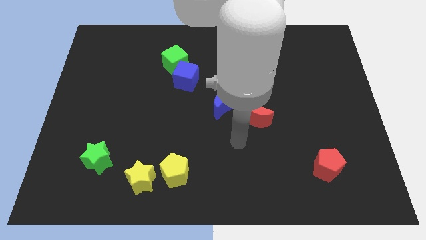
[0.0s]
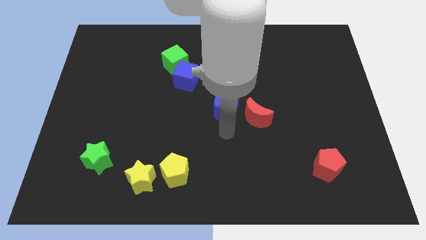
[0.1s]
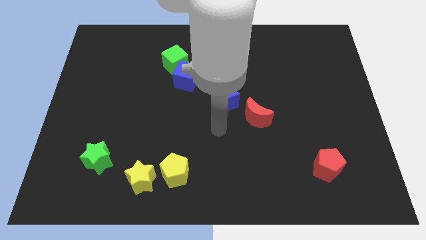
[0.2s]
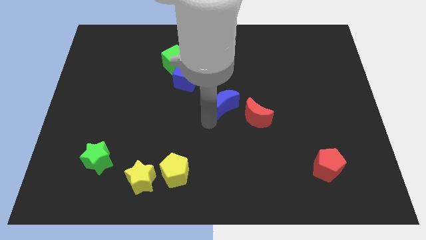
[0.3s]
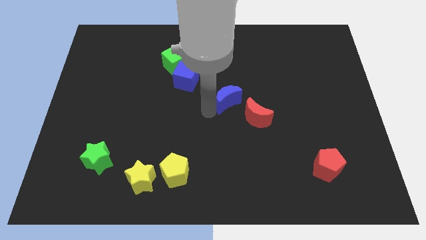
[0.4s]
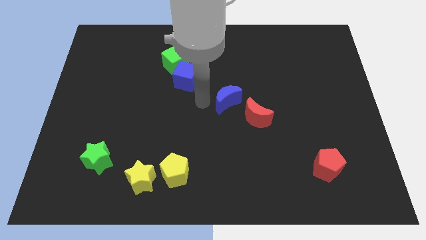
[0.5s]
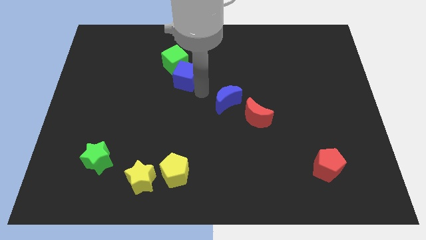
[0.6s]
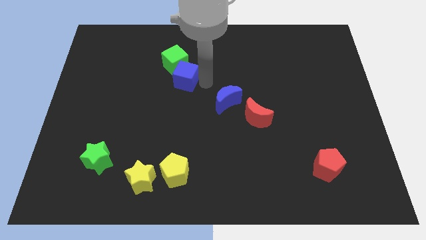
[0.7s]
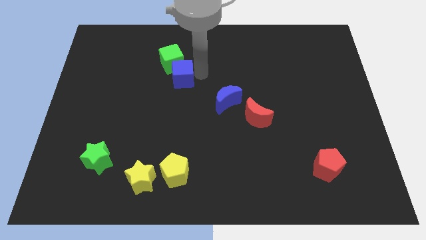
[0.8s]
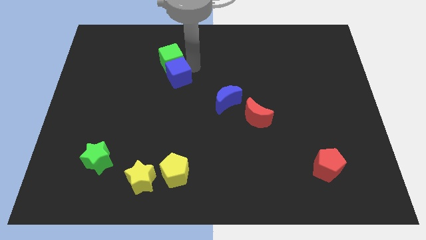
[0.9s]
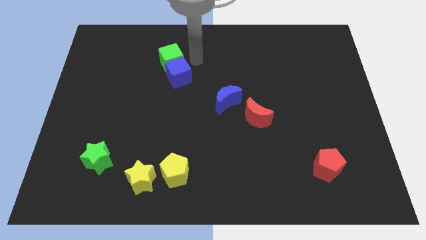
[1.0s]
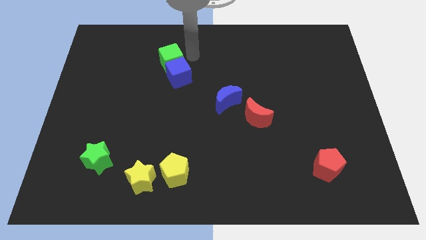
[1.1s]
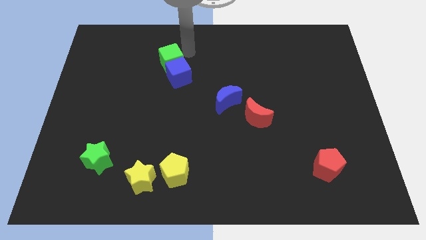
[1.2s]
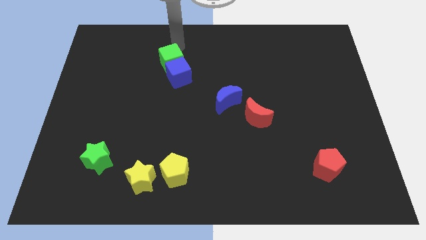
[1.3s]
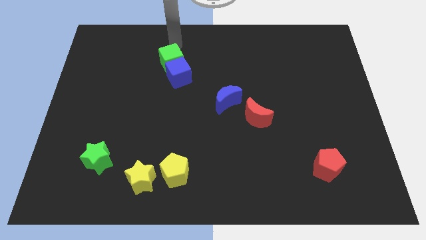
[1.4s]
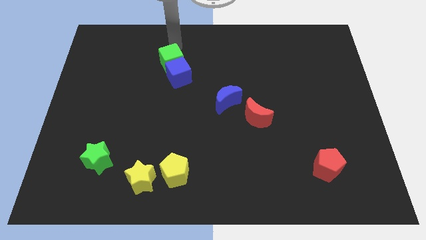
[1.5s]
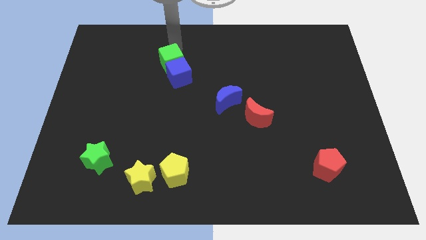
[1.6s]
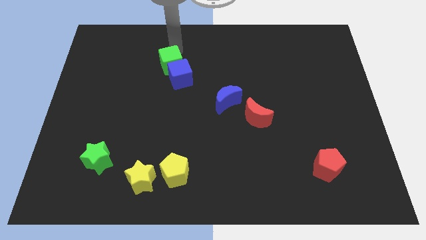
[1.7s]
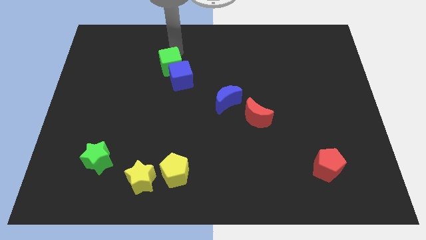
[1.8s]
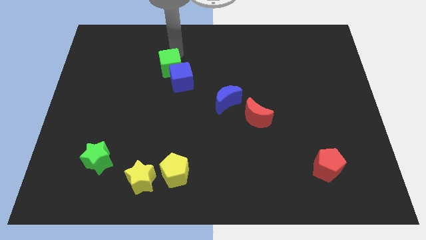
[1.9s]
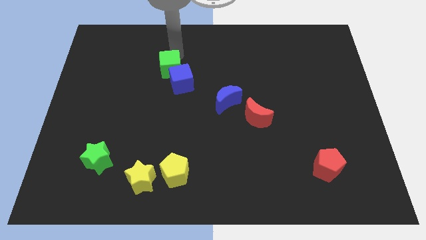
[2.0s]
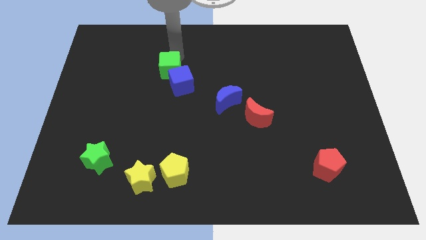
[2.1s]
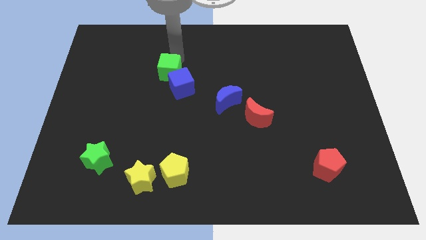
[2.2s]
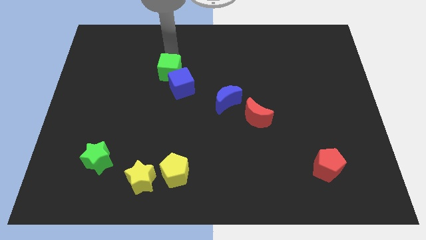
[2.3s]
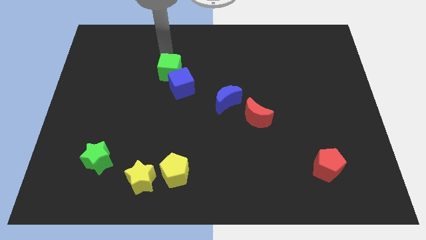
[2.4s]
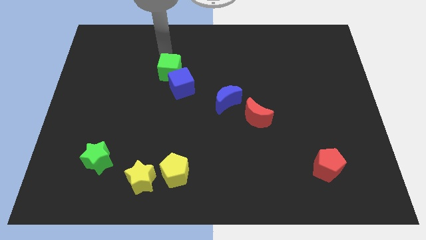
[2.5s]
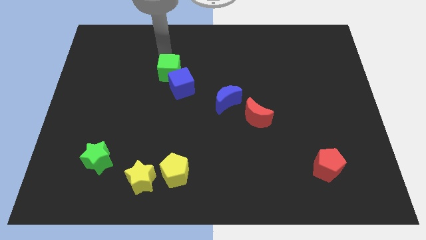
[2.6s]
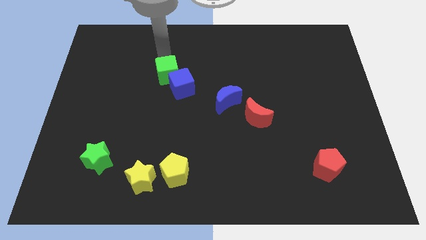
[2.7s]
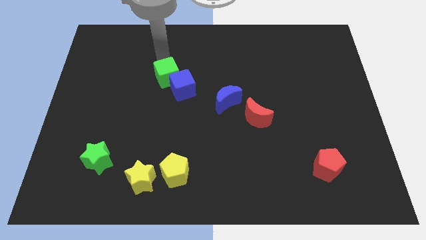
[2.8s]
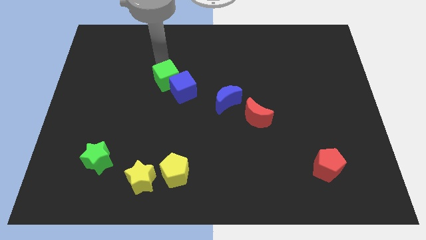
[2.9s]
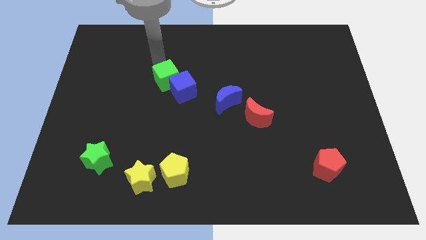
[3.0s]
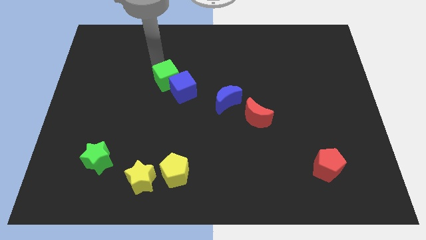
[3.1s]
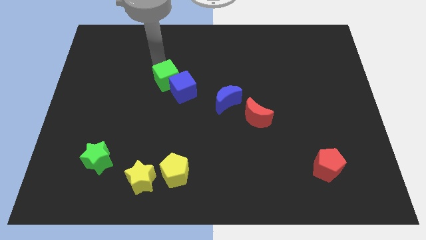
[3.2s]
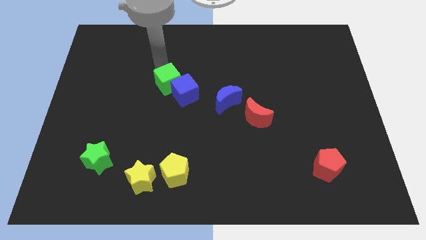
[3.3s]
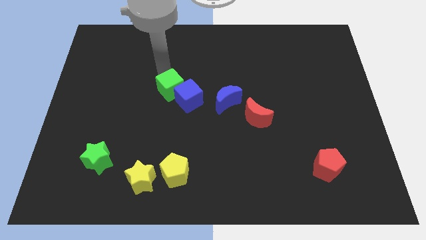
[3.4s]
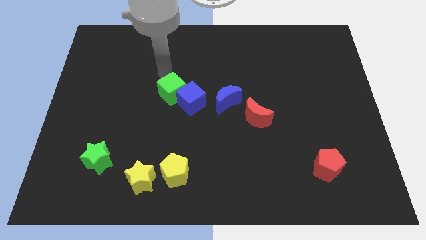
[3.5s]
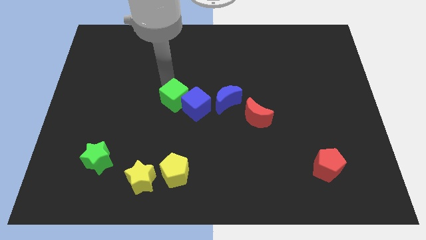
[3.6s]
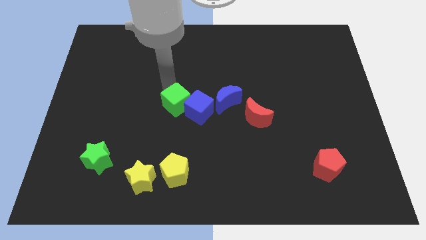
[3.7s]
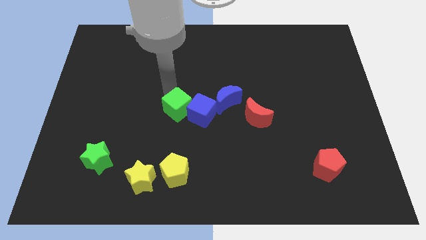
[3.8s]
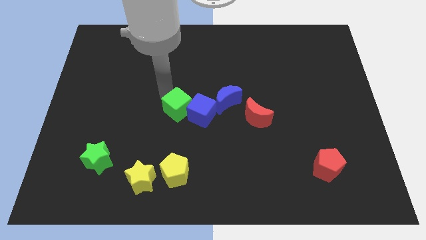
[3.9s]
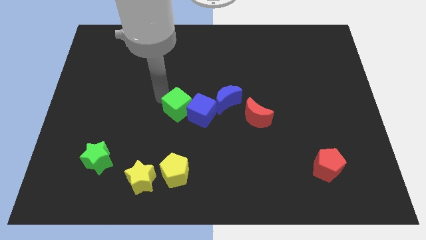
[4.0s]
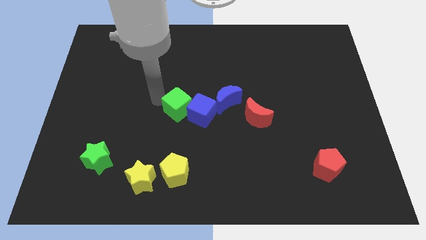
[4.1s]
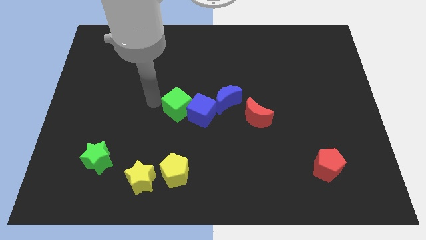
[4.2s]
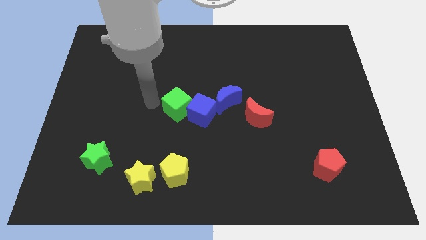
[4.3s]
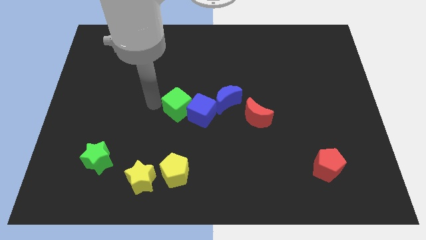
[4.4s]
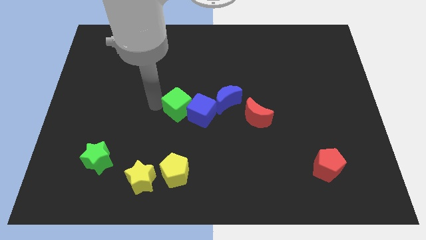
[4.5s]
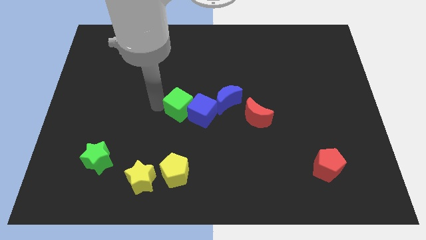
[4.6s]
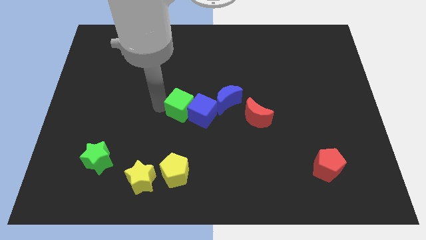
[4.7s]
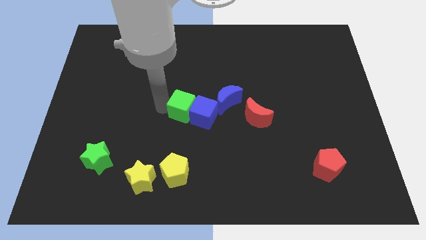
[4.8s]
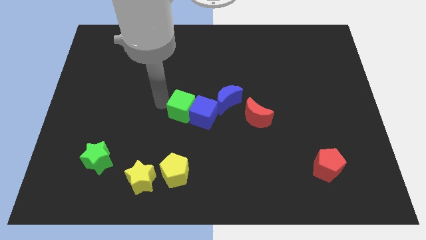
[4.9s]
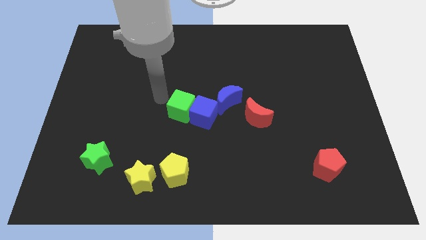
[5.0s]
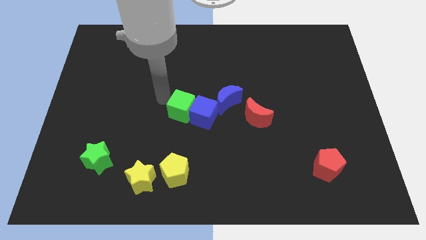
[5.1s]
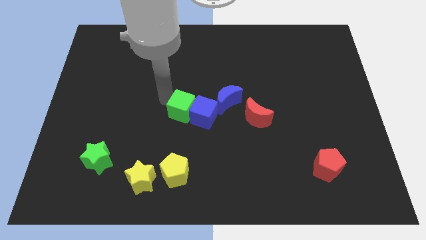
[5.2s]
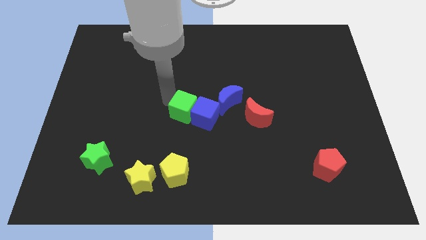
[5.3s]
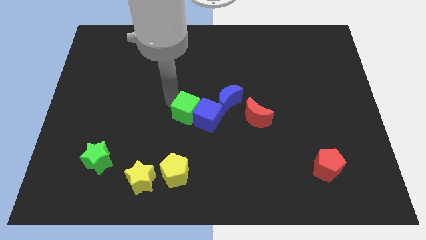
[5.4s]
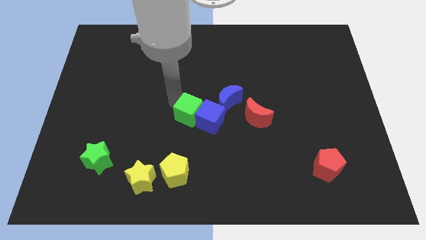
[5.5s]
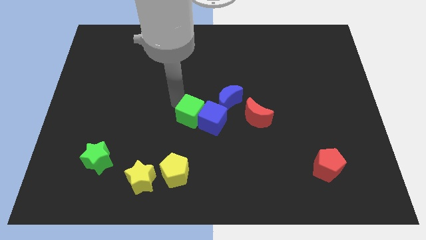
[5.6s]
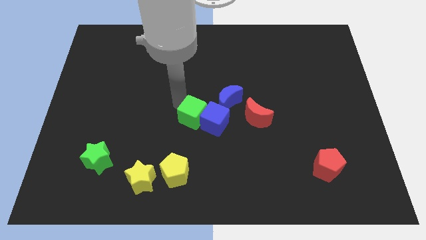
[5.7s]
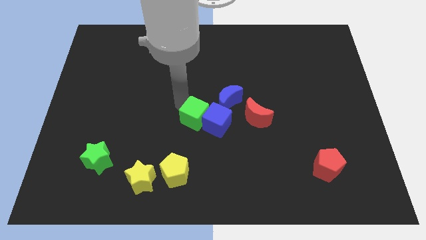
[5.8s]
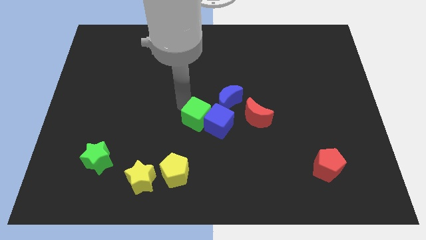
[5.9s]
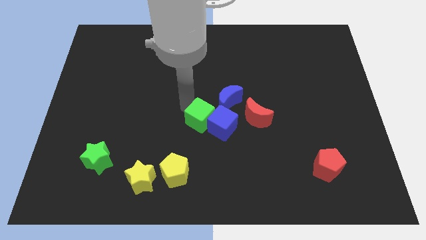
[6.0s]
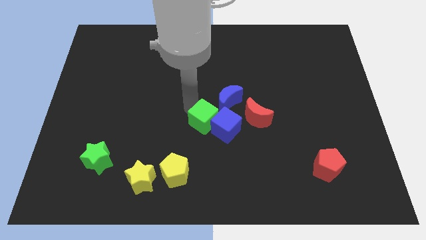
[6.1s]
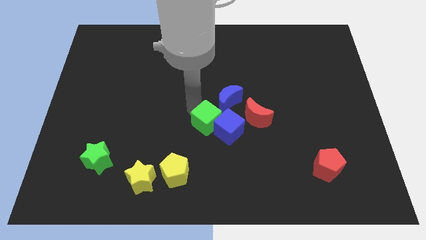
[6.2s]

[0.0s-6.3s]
push the green cube to the bottom of the blue moon

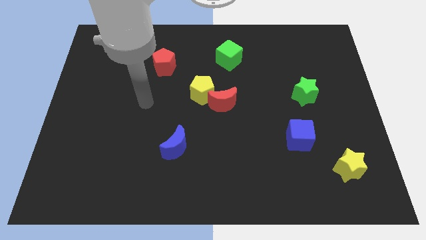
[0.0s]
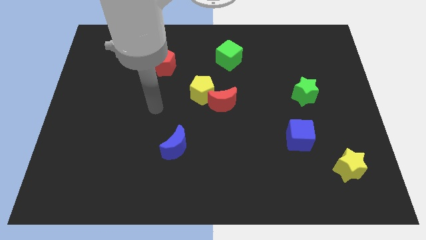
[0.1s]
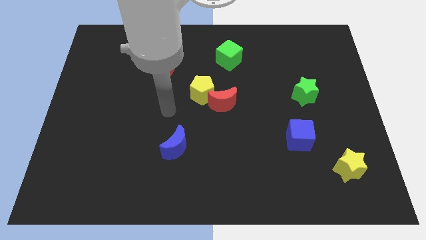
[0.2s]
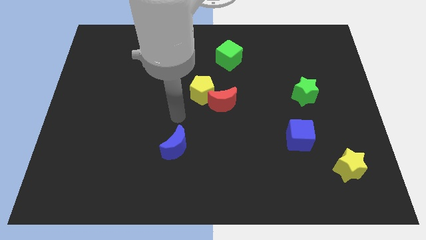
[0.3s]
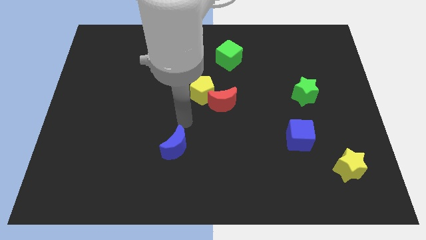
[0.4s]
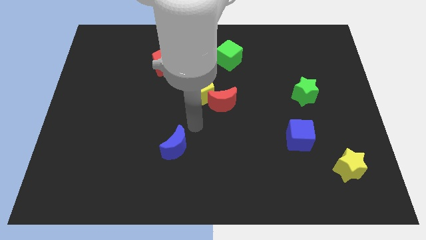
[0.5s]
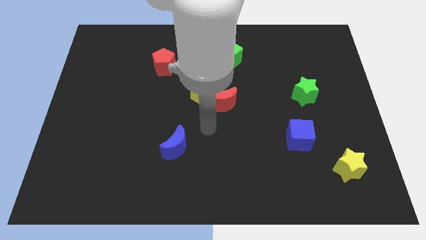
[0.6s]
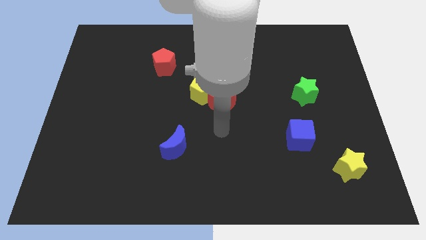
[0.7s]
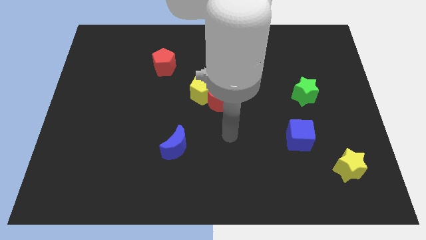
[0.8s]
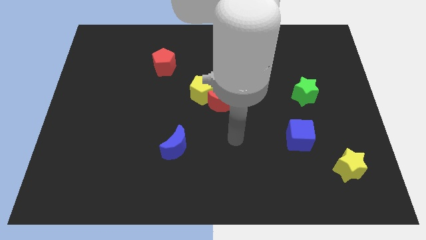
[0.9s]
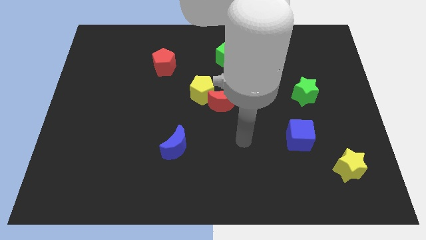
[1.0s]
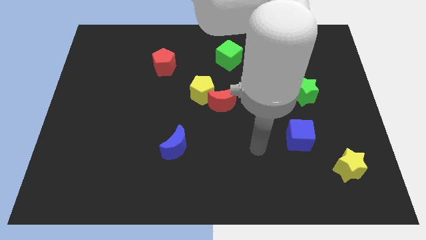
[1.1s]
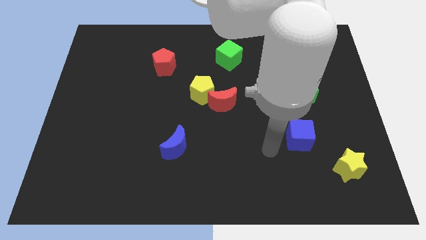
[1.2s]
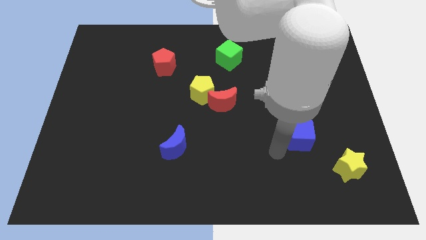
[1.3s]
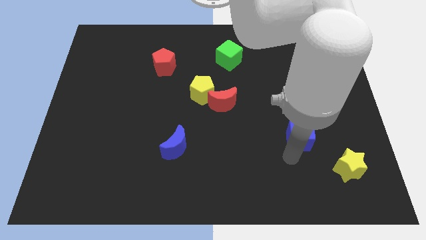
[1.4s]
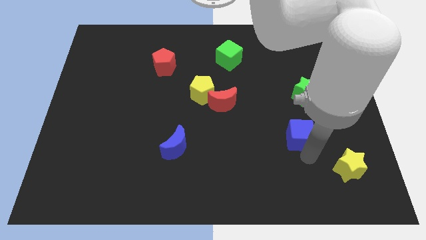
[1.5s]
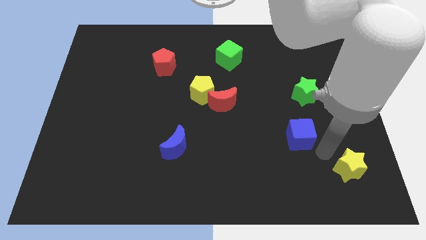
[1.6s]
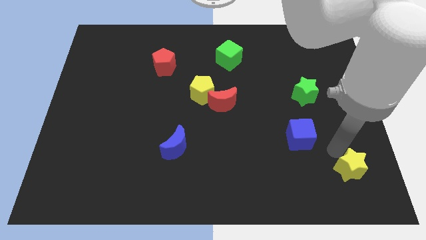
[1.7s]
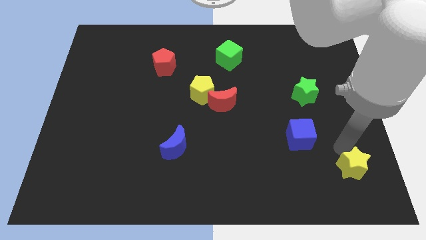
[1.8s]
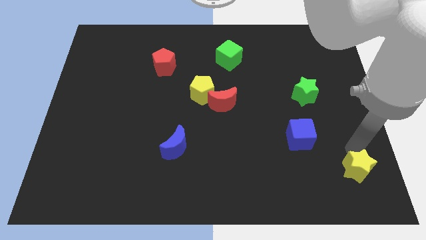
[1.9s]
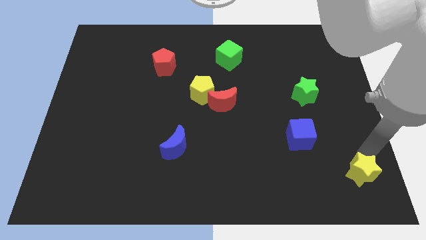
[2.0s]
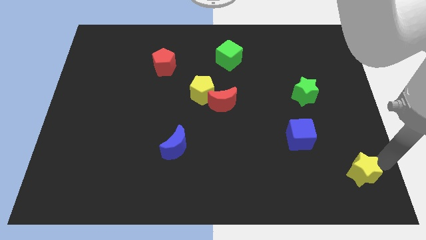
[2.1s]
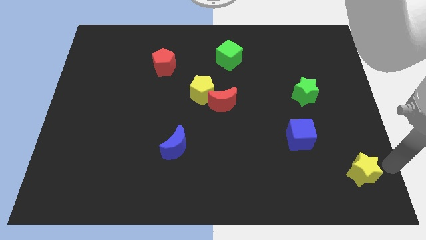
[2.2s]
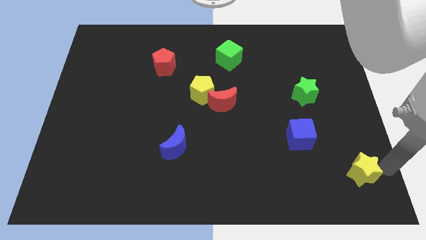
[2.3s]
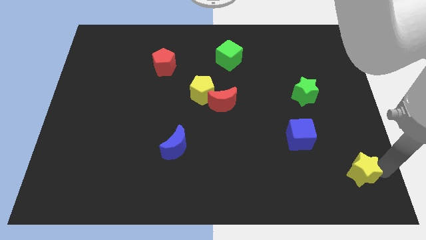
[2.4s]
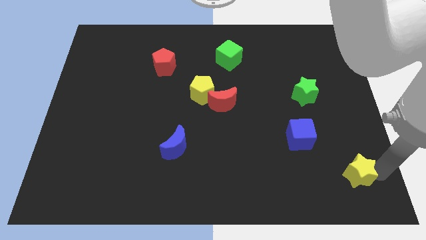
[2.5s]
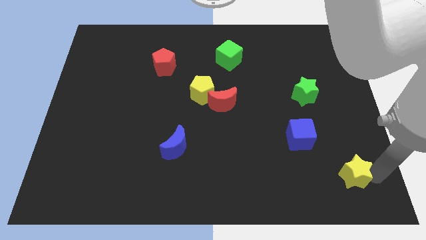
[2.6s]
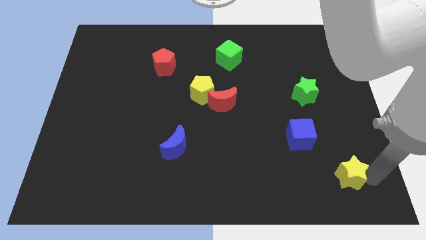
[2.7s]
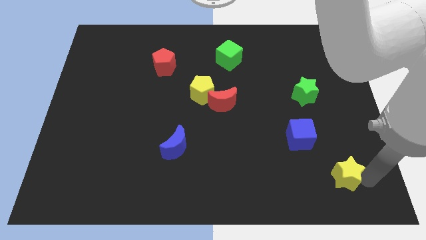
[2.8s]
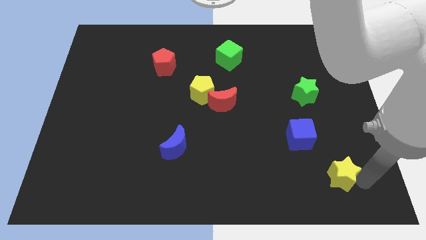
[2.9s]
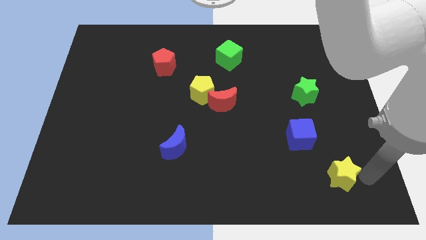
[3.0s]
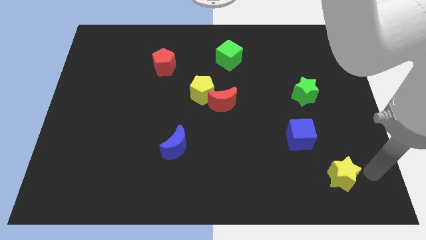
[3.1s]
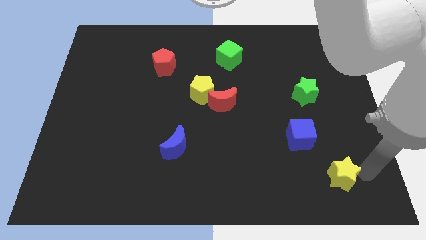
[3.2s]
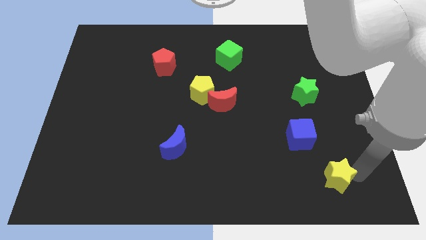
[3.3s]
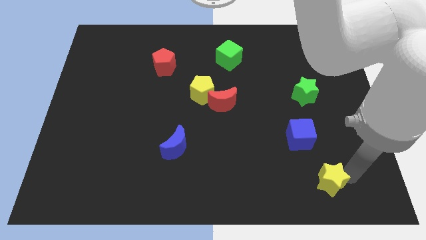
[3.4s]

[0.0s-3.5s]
move the yellow star below the blue cube
